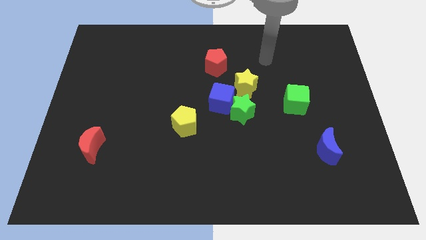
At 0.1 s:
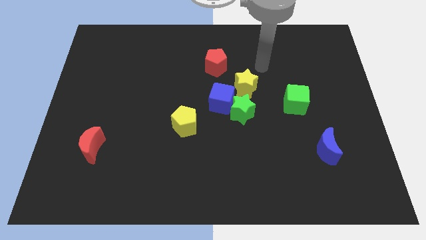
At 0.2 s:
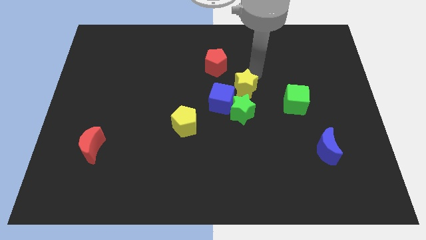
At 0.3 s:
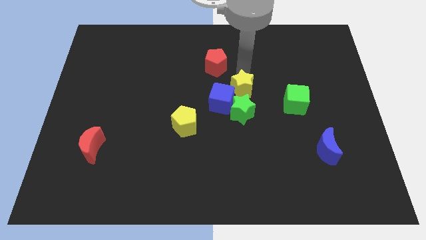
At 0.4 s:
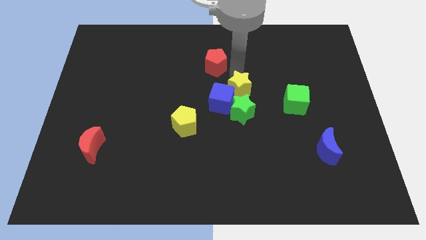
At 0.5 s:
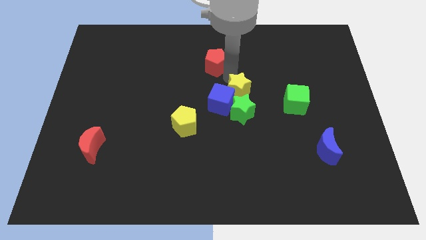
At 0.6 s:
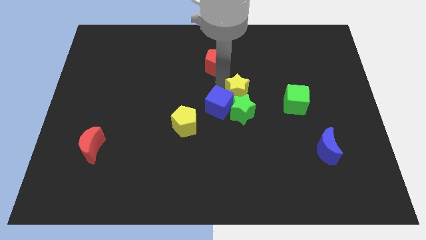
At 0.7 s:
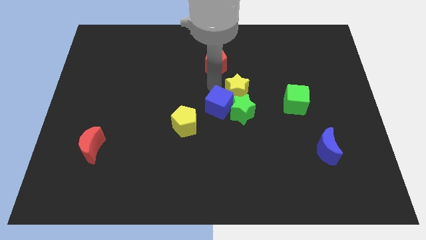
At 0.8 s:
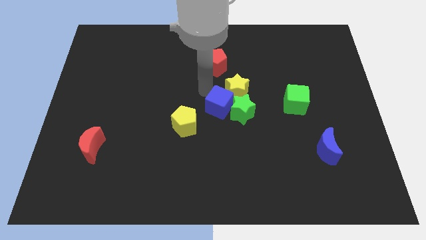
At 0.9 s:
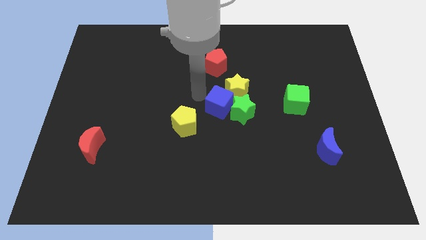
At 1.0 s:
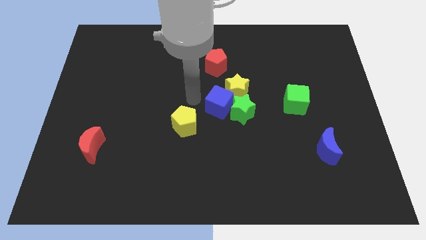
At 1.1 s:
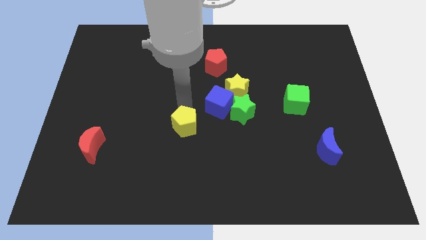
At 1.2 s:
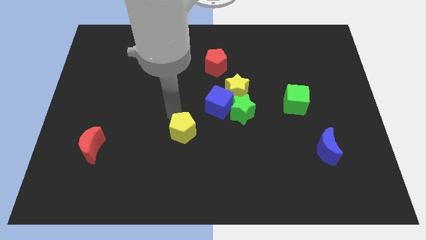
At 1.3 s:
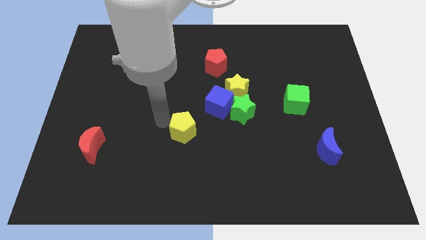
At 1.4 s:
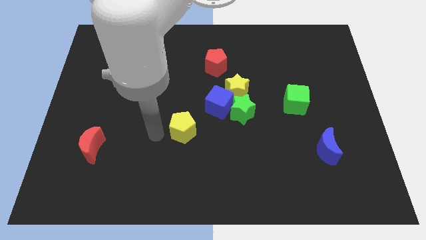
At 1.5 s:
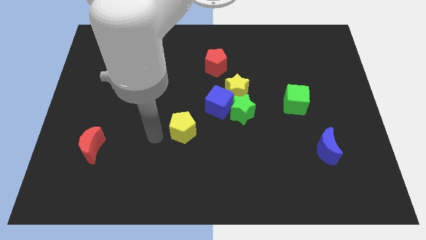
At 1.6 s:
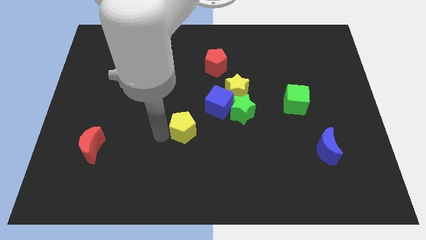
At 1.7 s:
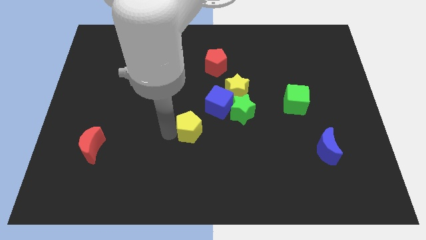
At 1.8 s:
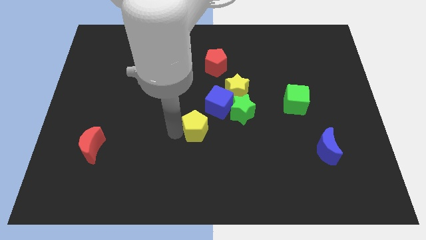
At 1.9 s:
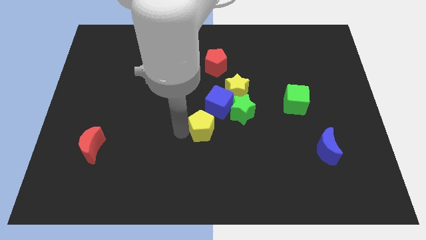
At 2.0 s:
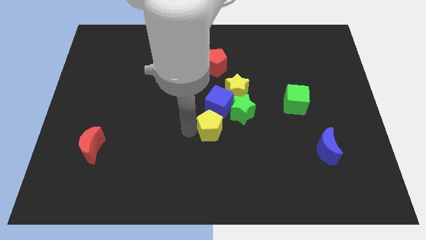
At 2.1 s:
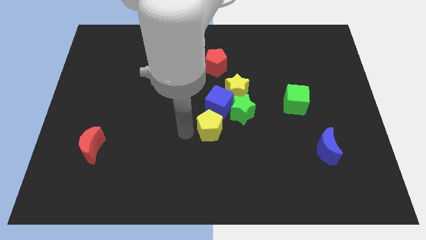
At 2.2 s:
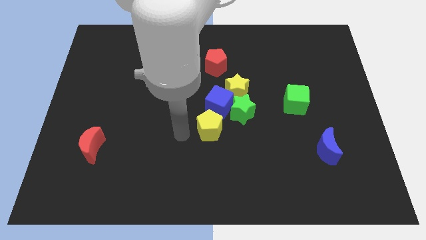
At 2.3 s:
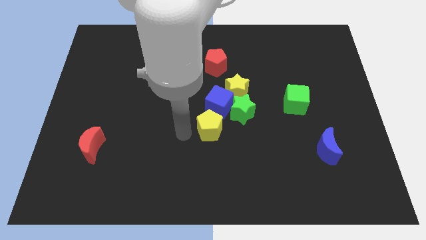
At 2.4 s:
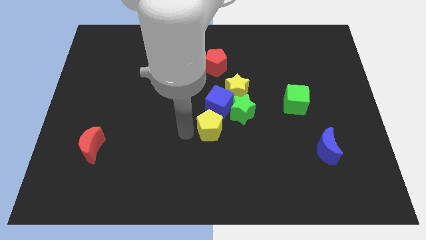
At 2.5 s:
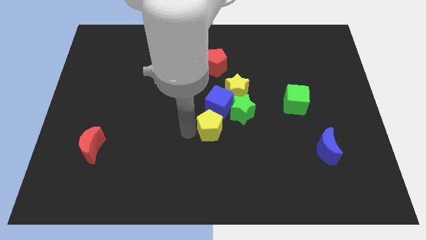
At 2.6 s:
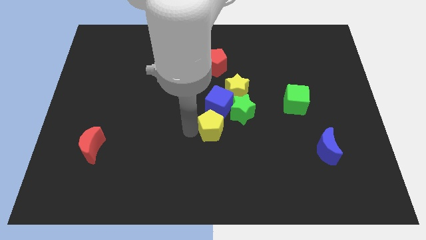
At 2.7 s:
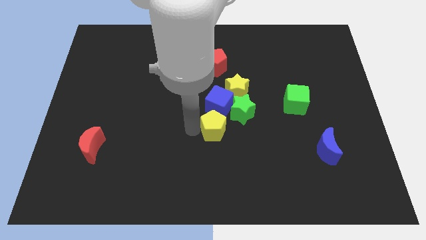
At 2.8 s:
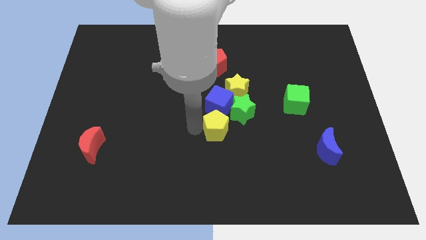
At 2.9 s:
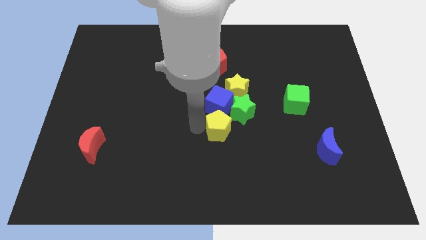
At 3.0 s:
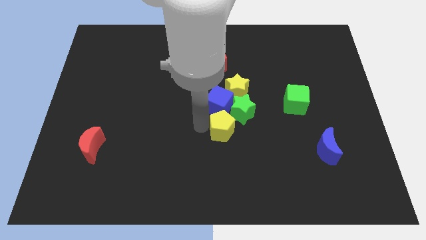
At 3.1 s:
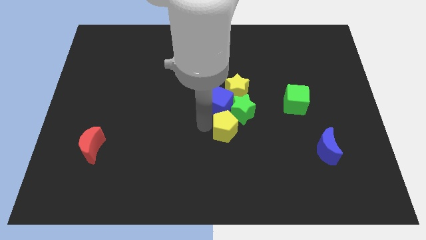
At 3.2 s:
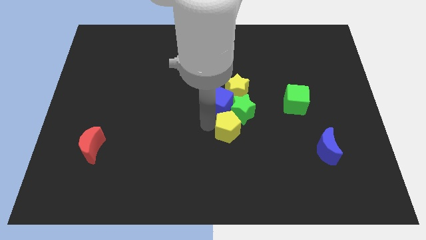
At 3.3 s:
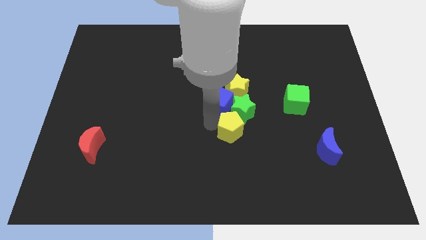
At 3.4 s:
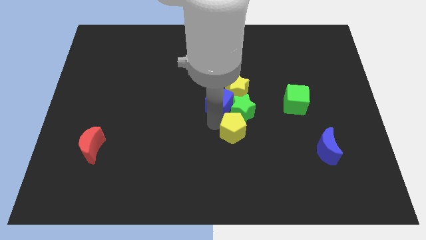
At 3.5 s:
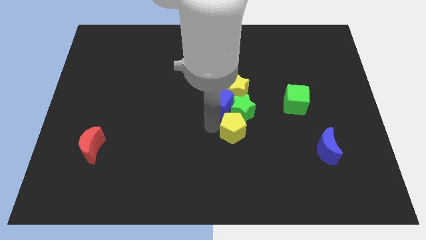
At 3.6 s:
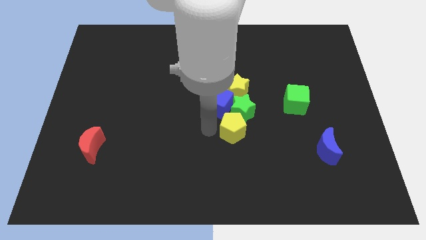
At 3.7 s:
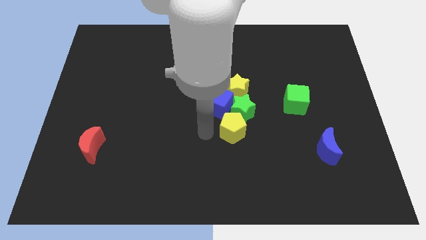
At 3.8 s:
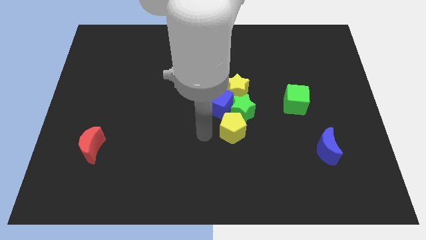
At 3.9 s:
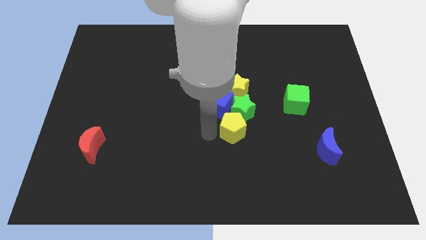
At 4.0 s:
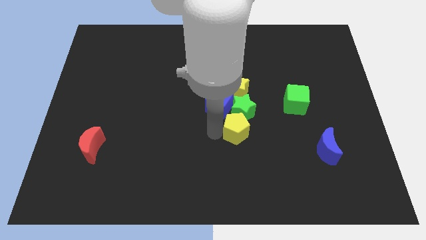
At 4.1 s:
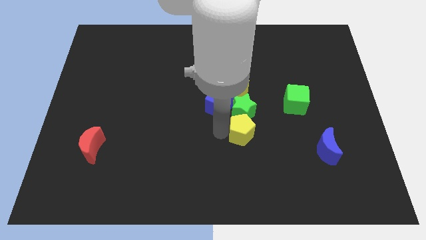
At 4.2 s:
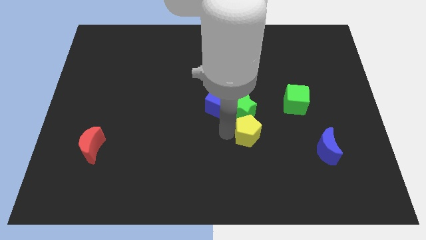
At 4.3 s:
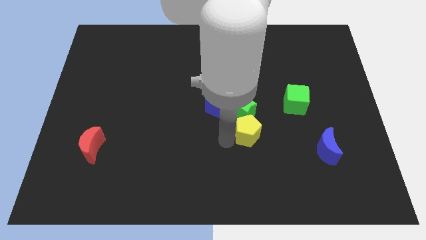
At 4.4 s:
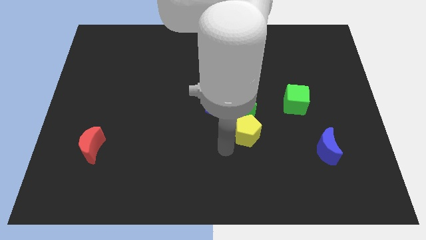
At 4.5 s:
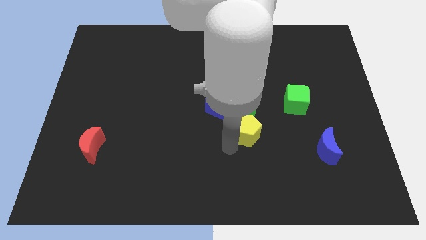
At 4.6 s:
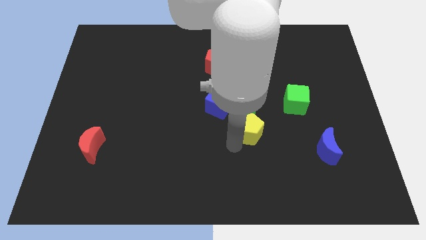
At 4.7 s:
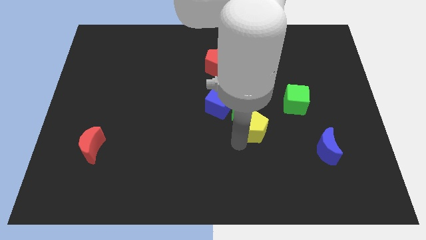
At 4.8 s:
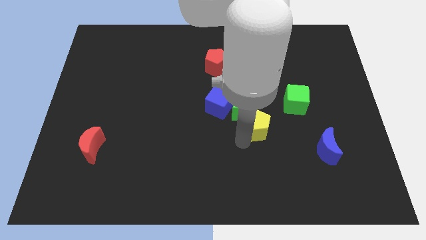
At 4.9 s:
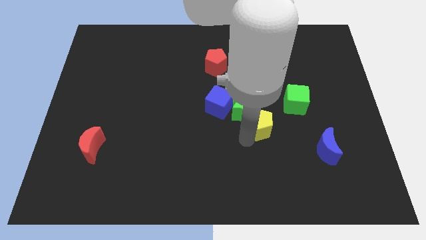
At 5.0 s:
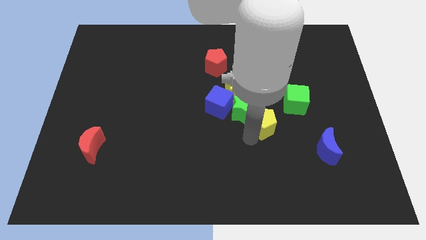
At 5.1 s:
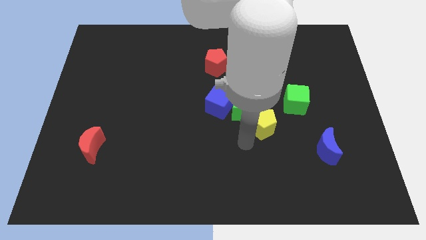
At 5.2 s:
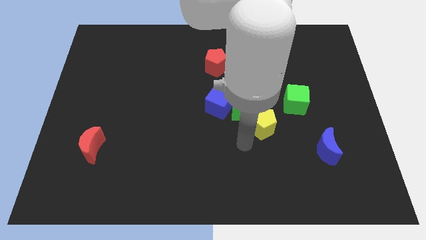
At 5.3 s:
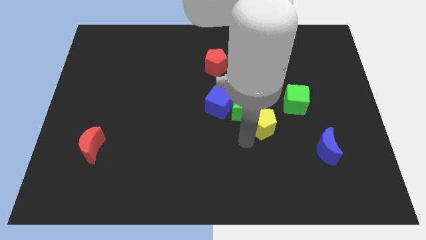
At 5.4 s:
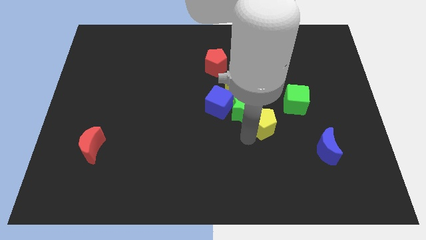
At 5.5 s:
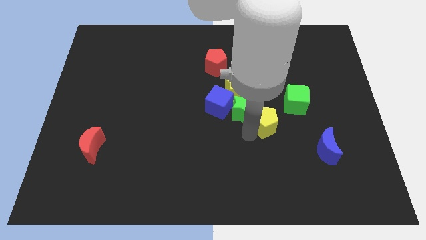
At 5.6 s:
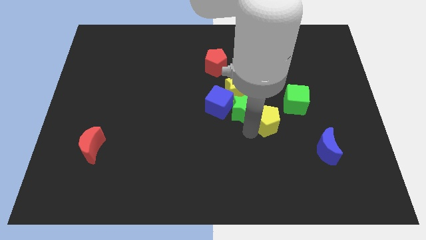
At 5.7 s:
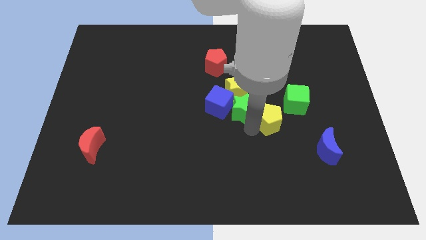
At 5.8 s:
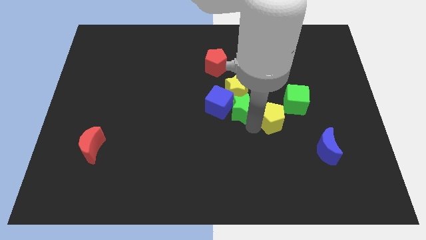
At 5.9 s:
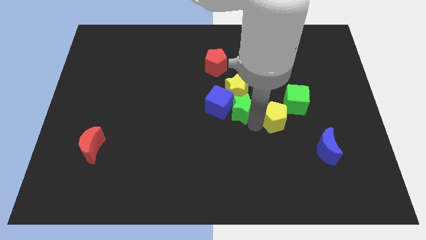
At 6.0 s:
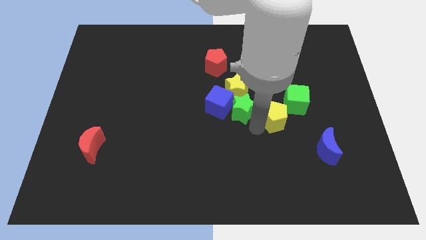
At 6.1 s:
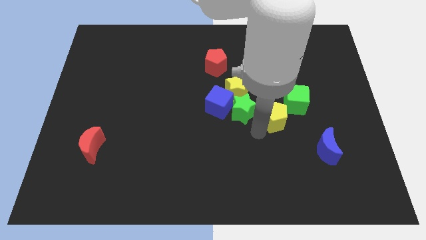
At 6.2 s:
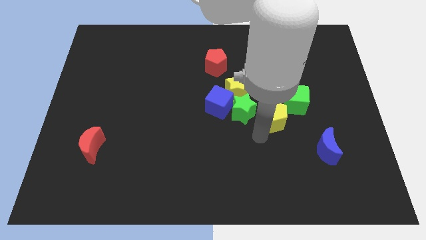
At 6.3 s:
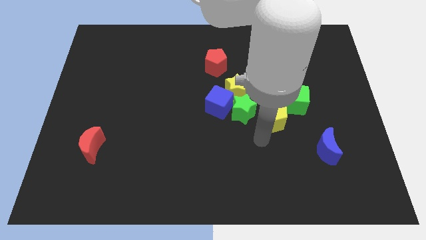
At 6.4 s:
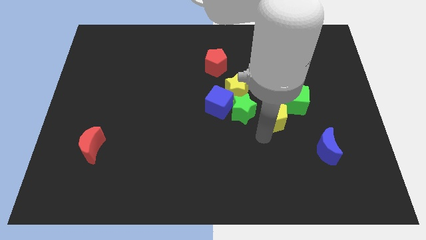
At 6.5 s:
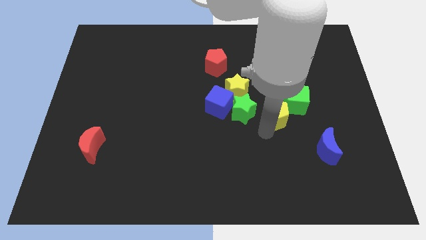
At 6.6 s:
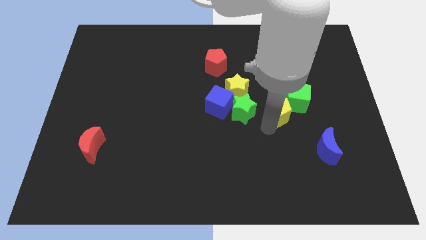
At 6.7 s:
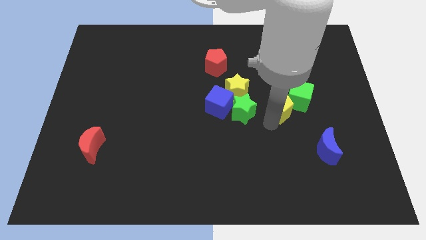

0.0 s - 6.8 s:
put the yellow pentagon close to the green cube

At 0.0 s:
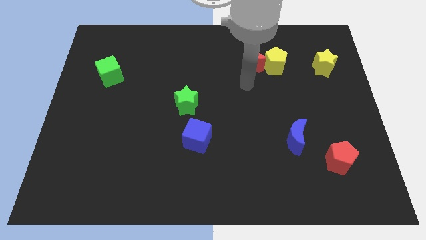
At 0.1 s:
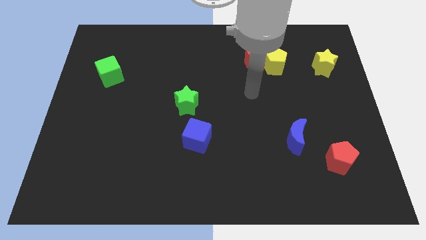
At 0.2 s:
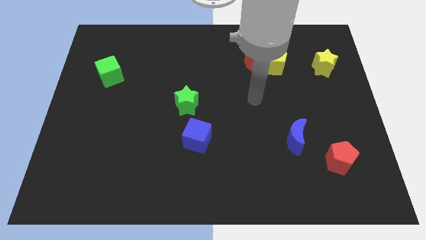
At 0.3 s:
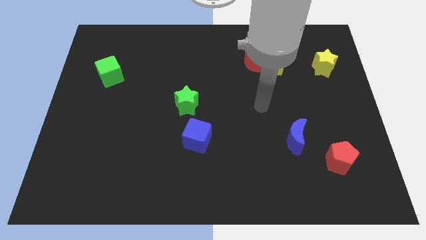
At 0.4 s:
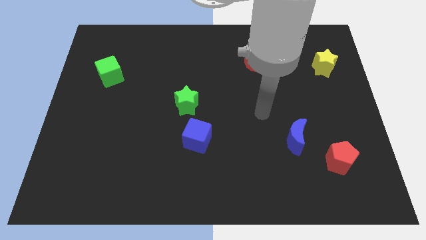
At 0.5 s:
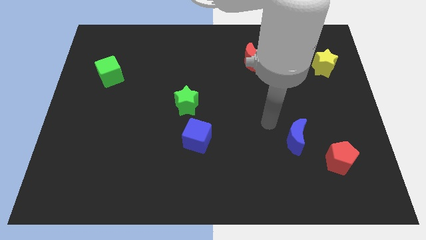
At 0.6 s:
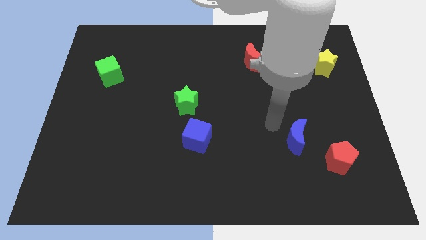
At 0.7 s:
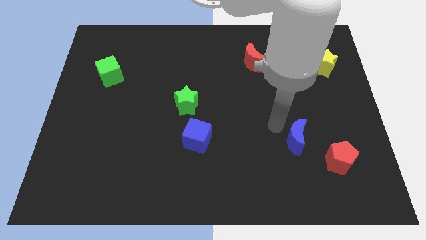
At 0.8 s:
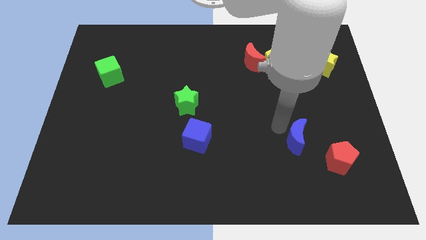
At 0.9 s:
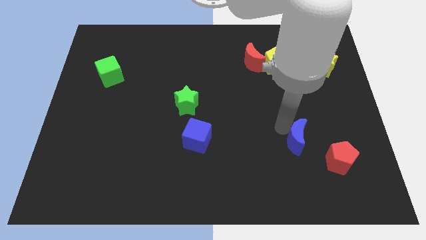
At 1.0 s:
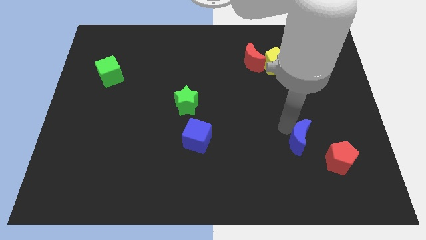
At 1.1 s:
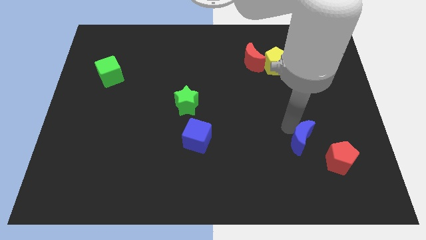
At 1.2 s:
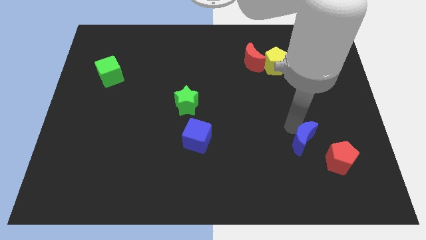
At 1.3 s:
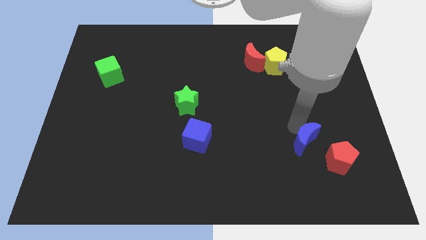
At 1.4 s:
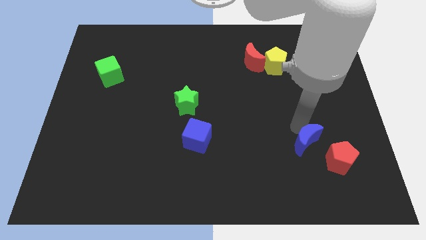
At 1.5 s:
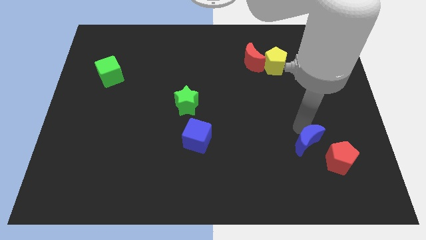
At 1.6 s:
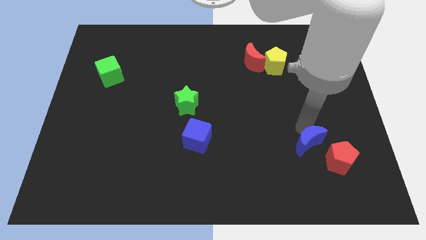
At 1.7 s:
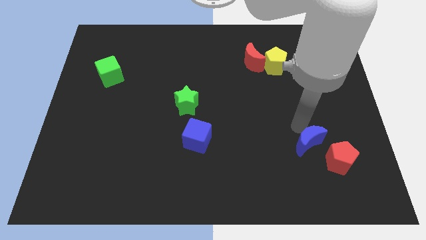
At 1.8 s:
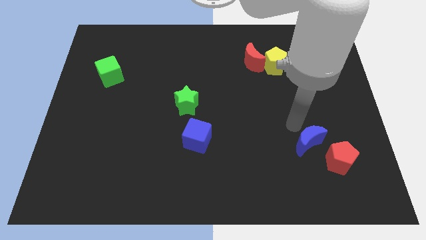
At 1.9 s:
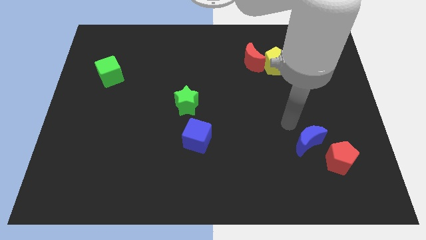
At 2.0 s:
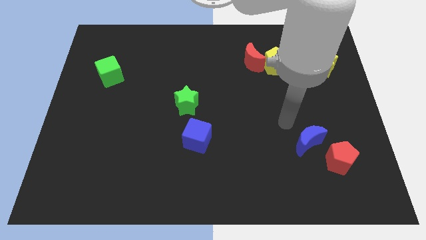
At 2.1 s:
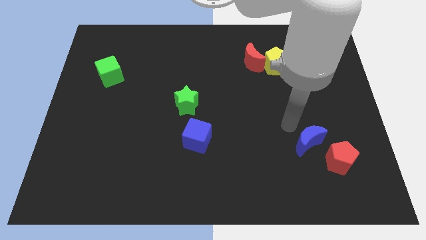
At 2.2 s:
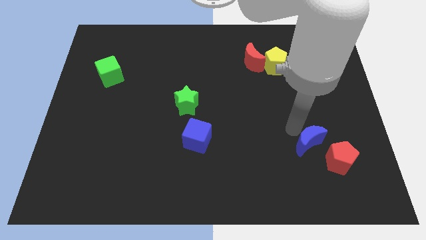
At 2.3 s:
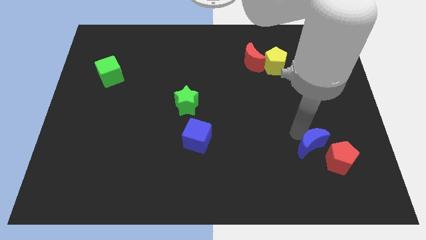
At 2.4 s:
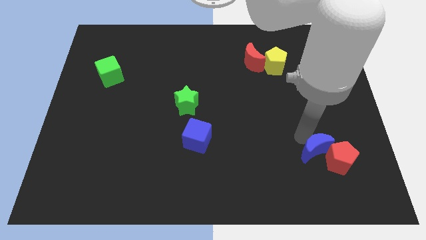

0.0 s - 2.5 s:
push the blue moon close to the red pentagon
